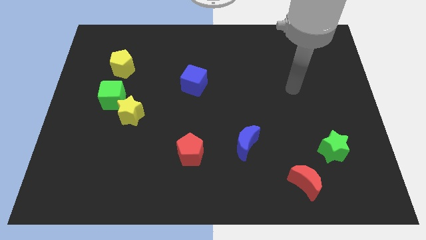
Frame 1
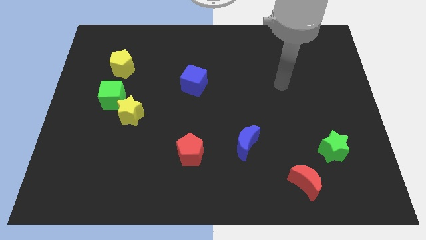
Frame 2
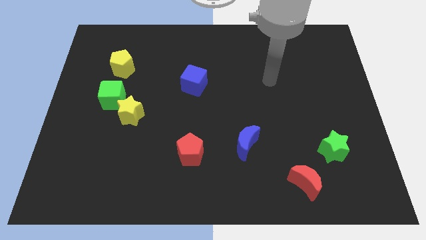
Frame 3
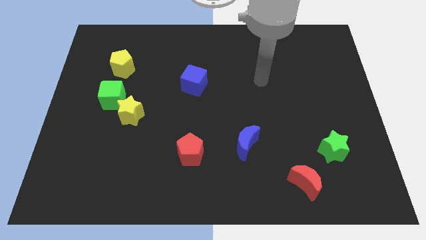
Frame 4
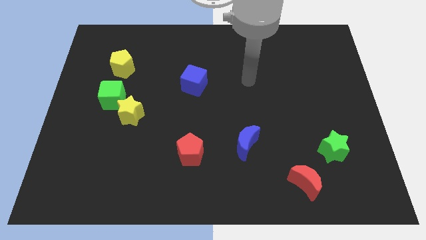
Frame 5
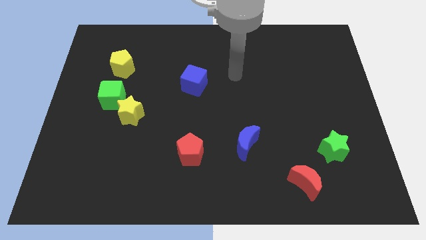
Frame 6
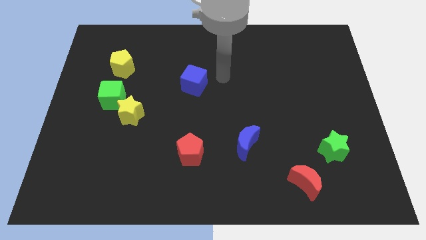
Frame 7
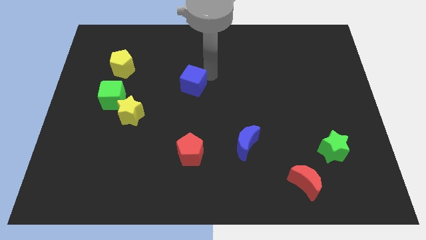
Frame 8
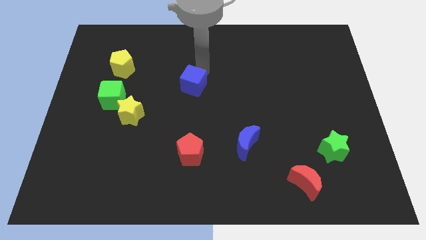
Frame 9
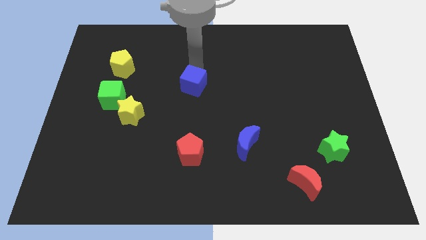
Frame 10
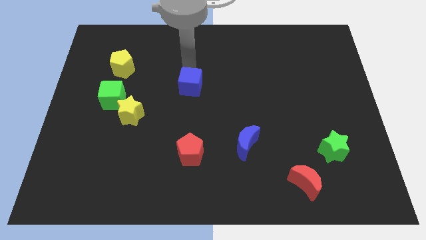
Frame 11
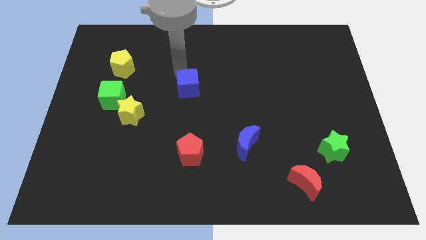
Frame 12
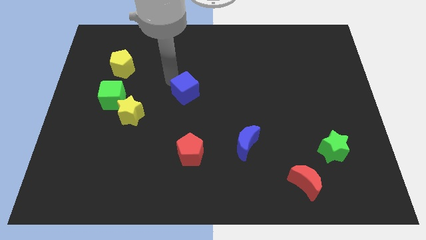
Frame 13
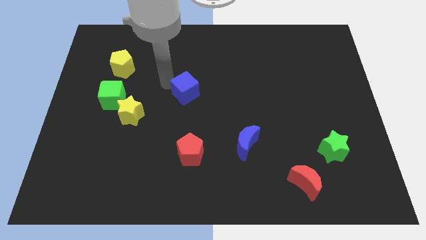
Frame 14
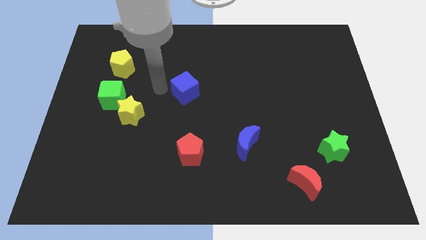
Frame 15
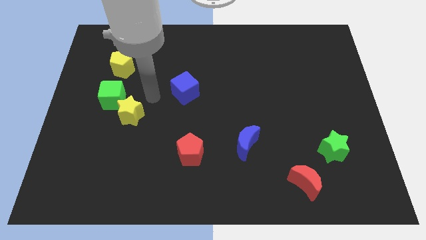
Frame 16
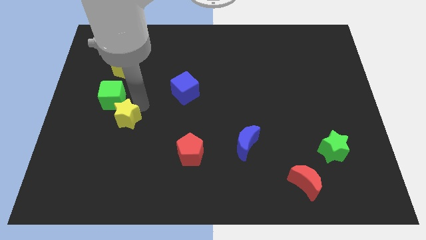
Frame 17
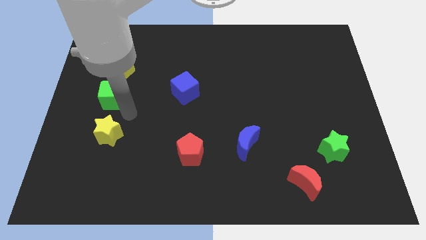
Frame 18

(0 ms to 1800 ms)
separate the green cube from the yellow star

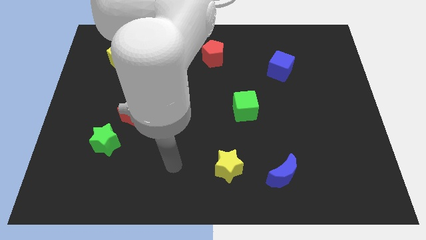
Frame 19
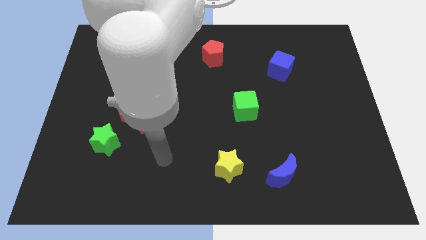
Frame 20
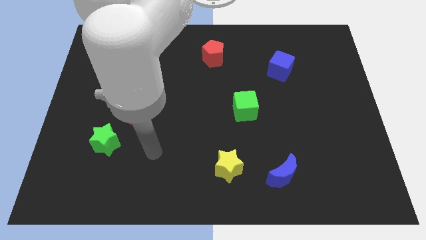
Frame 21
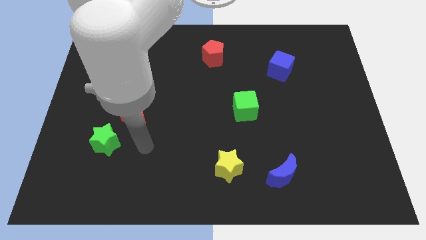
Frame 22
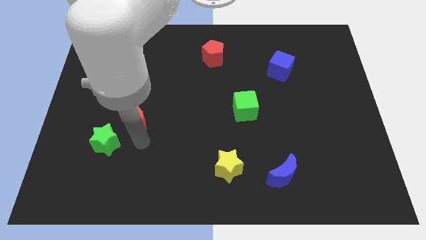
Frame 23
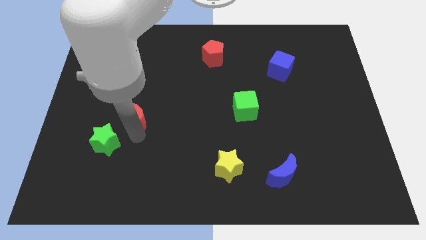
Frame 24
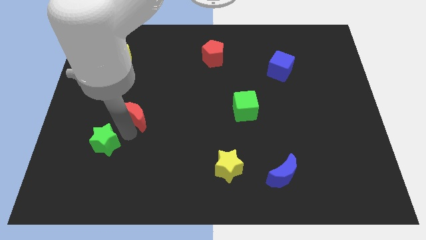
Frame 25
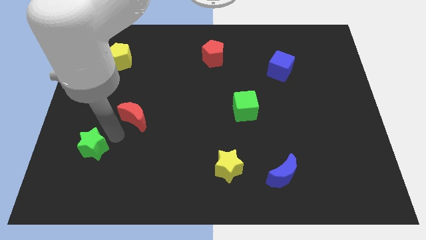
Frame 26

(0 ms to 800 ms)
move the red moon away from the green star

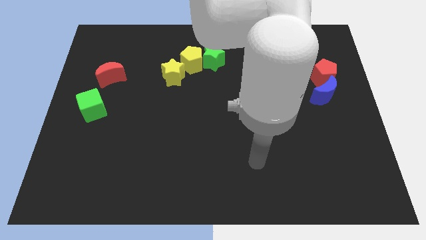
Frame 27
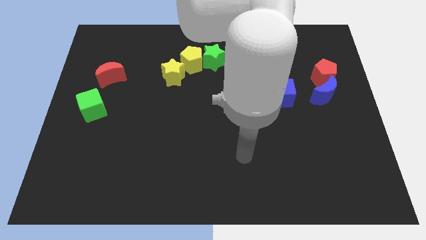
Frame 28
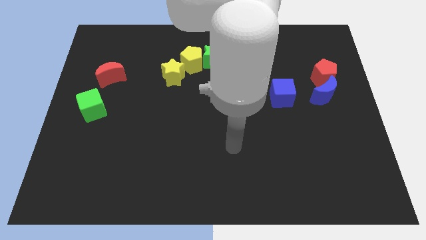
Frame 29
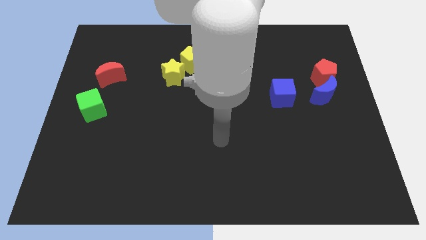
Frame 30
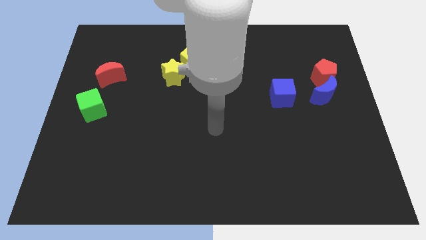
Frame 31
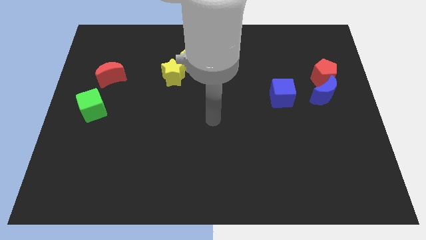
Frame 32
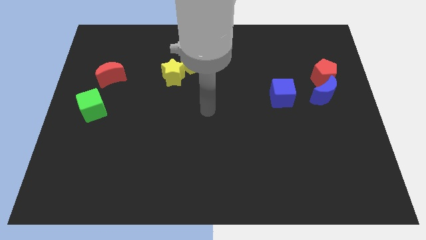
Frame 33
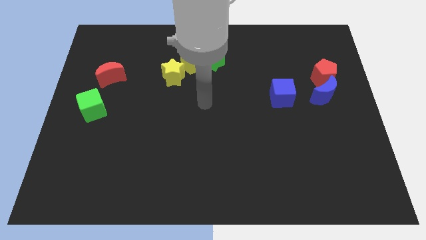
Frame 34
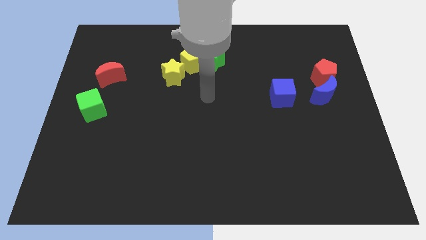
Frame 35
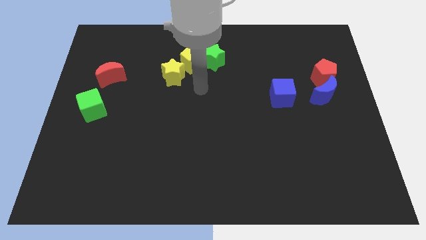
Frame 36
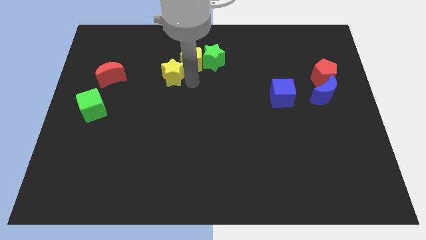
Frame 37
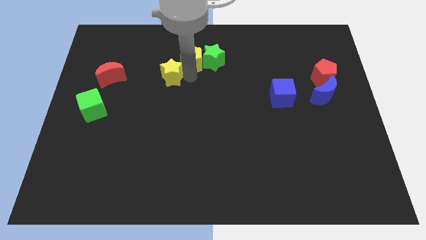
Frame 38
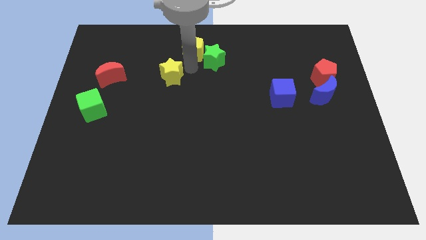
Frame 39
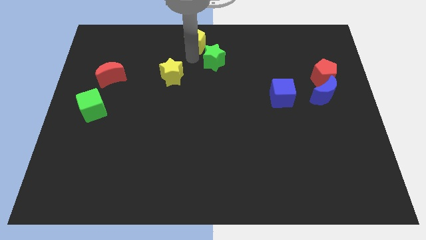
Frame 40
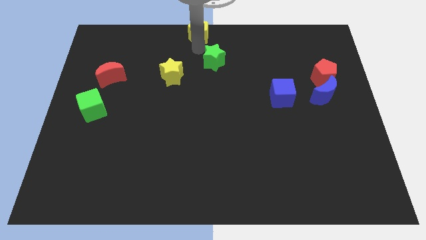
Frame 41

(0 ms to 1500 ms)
separate the green star from the yellow pentagon

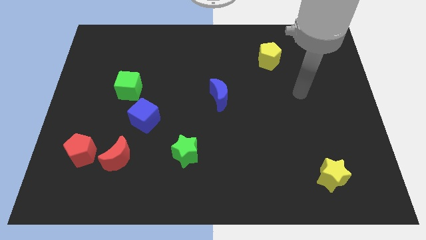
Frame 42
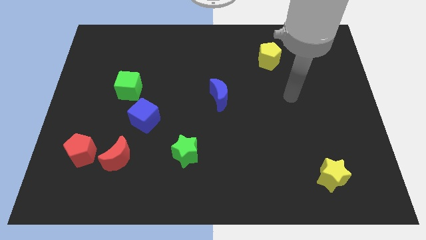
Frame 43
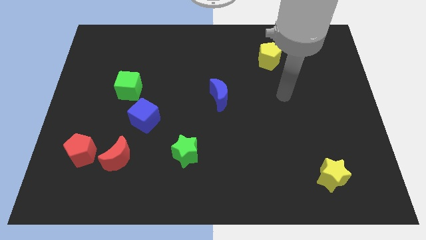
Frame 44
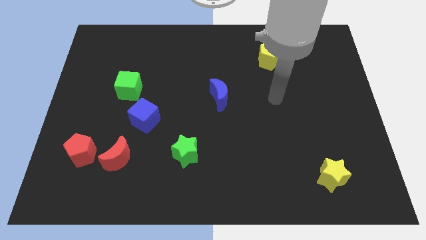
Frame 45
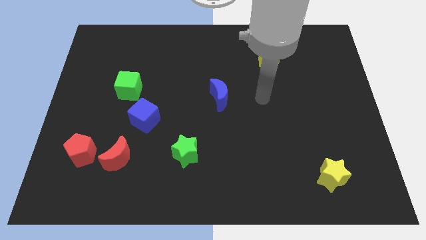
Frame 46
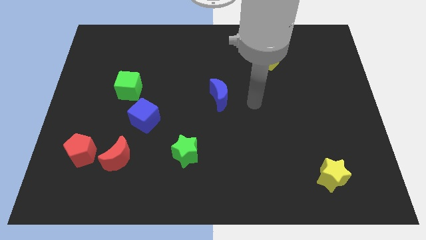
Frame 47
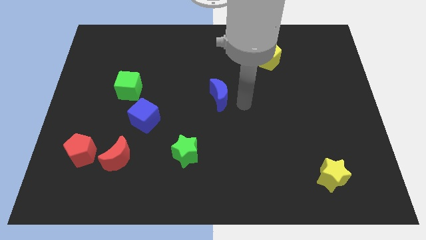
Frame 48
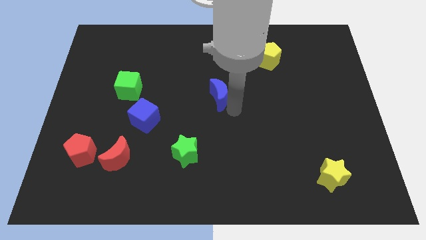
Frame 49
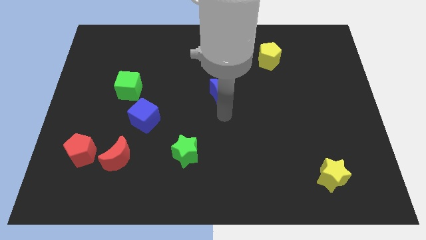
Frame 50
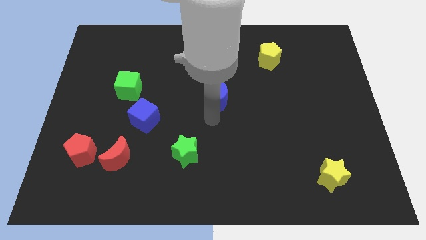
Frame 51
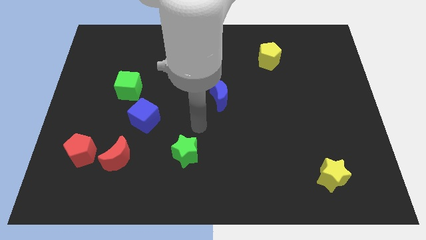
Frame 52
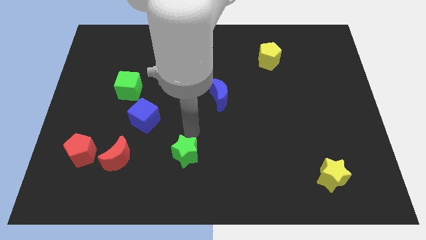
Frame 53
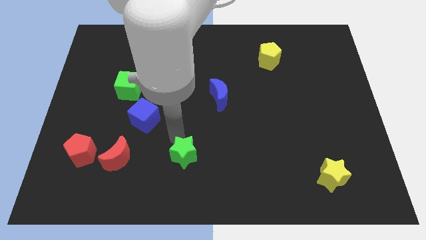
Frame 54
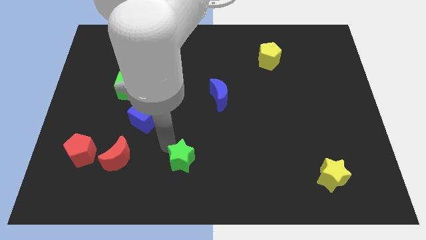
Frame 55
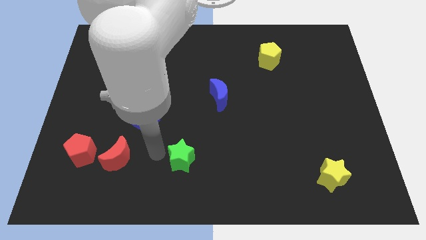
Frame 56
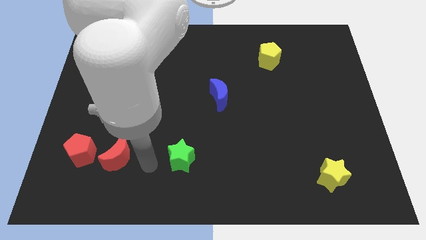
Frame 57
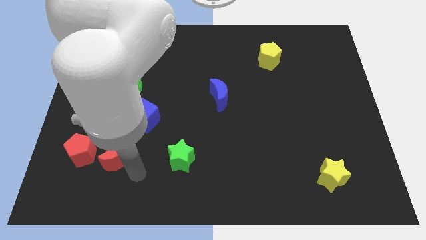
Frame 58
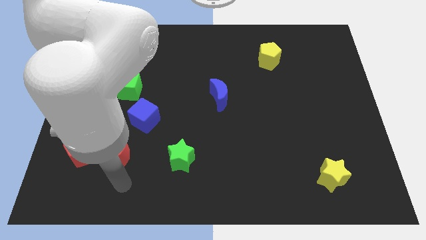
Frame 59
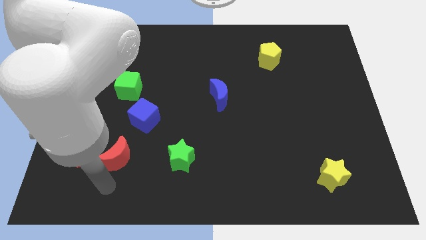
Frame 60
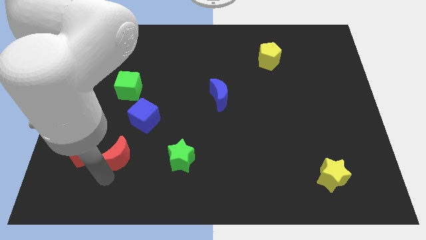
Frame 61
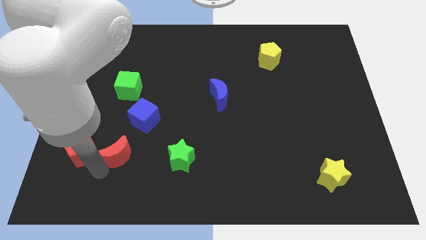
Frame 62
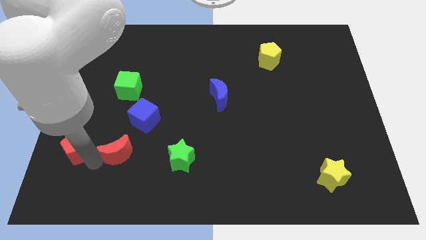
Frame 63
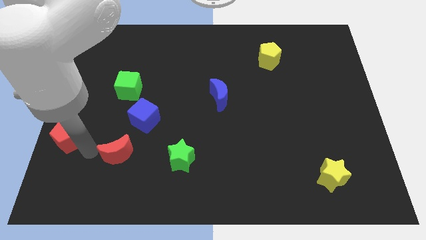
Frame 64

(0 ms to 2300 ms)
move the red moon away from the red pentagon

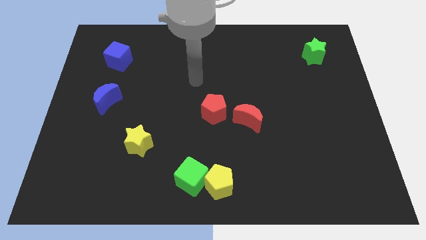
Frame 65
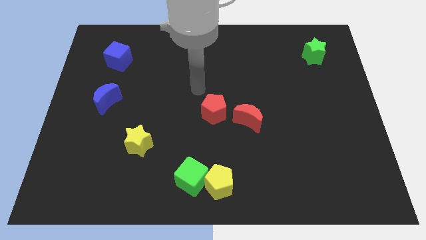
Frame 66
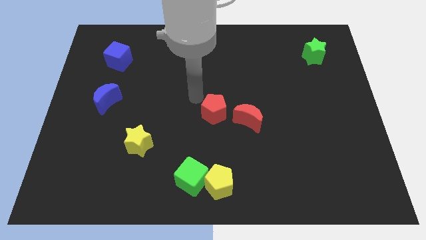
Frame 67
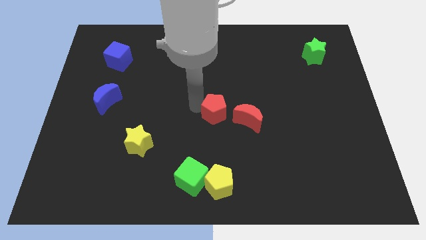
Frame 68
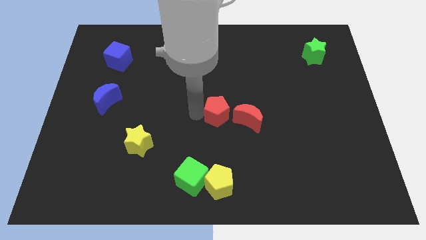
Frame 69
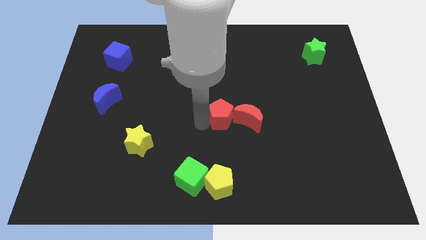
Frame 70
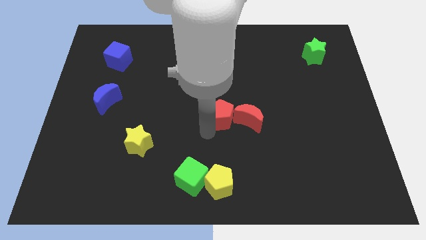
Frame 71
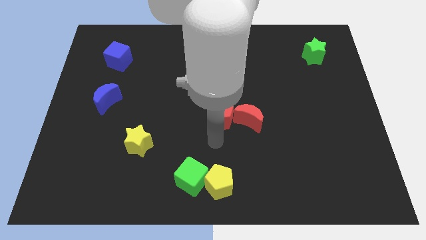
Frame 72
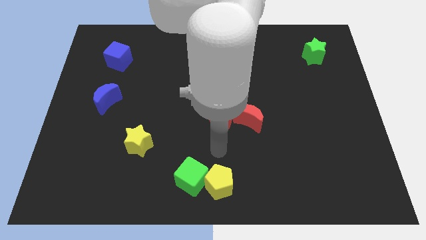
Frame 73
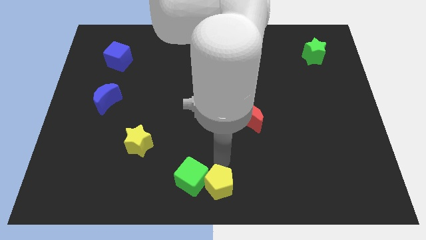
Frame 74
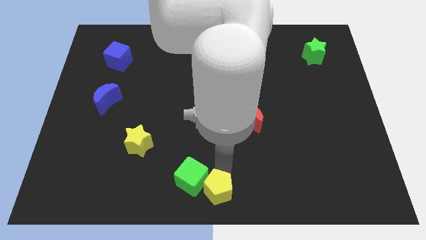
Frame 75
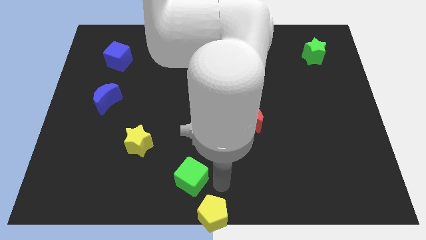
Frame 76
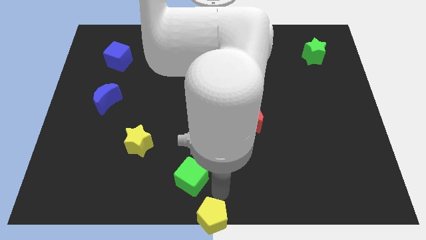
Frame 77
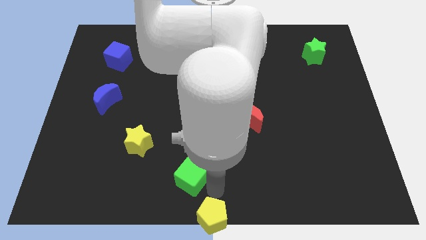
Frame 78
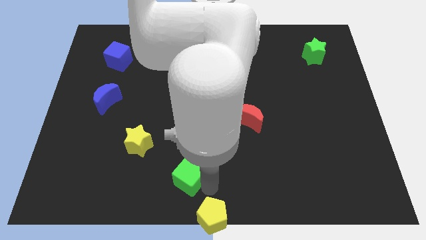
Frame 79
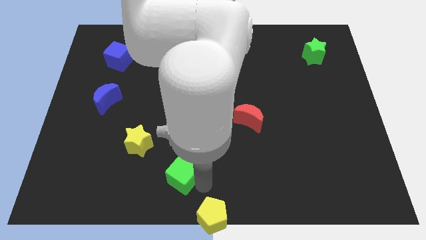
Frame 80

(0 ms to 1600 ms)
separate the green cube from the yellow pentagon

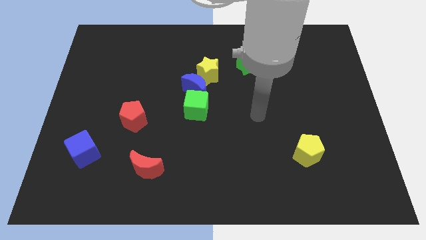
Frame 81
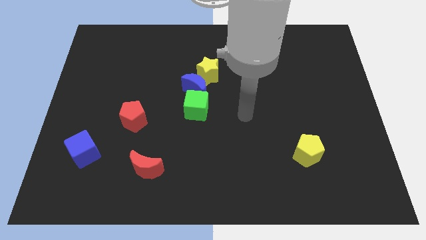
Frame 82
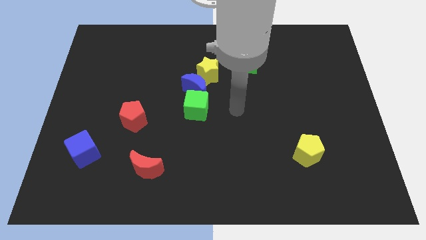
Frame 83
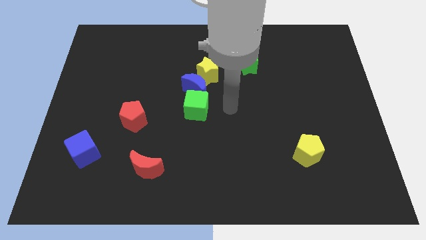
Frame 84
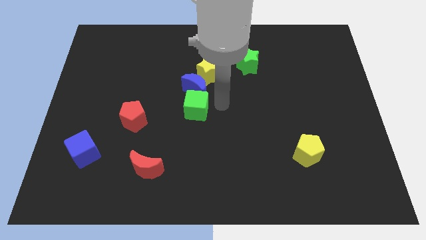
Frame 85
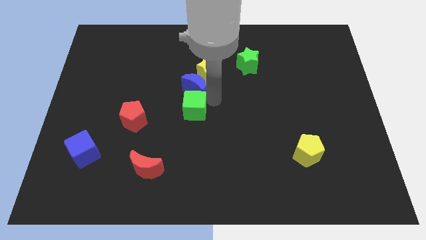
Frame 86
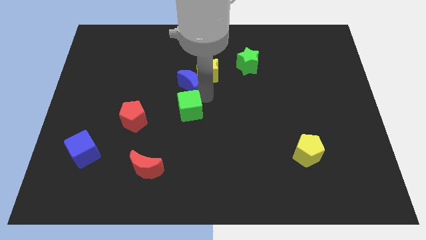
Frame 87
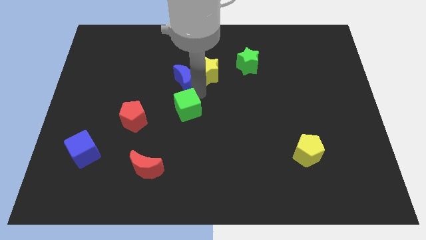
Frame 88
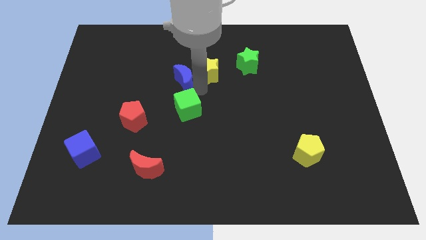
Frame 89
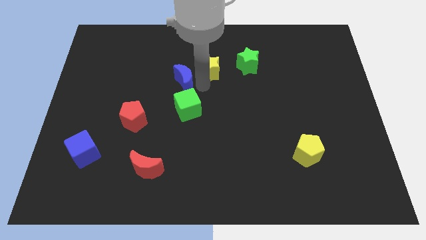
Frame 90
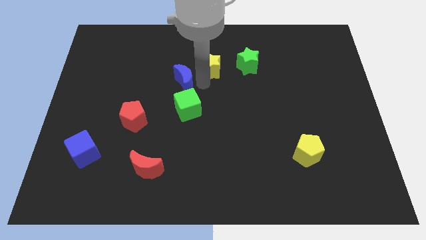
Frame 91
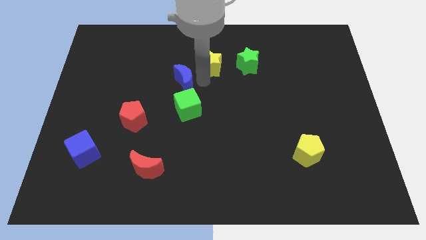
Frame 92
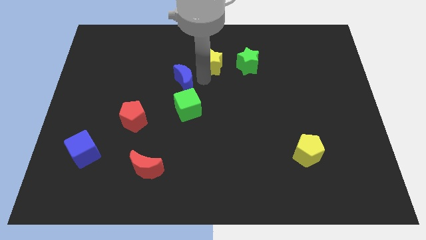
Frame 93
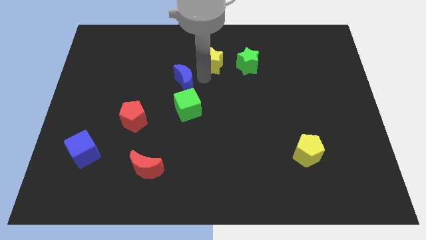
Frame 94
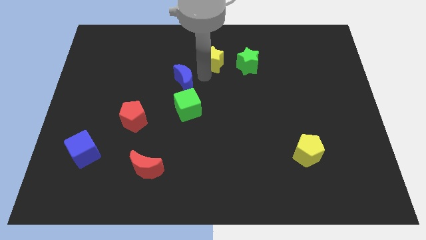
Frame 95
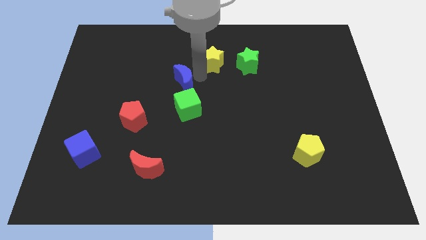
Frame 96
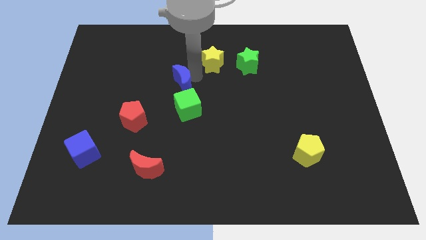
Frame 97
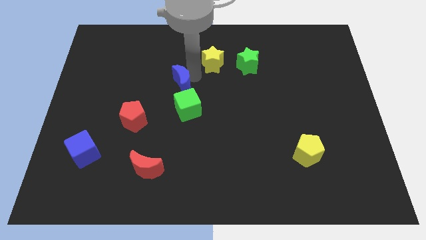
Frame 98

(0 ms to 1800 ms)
pull the yellow star apart from the blue moon
